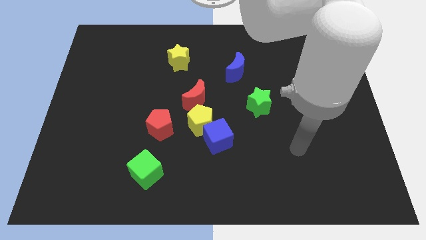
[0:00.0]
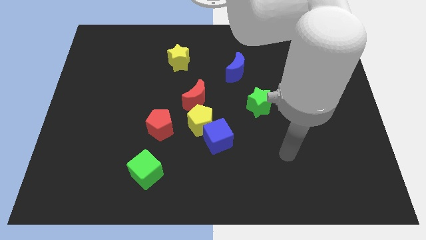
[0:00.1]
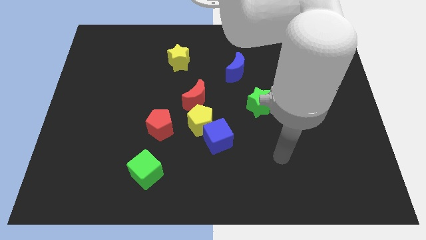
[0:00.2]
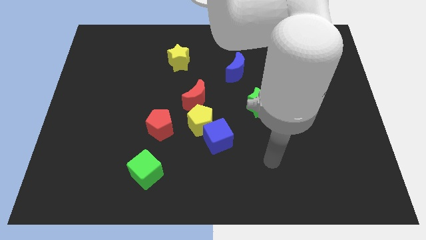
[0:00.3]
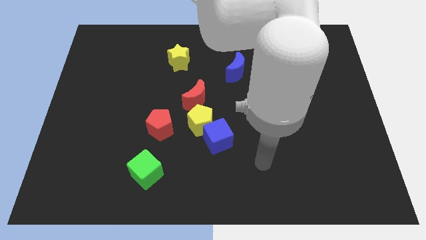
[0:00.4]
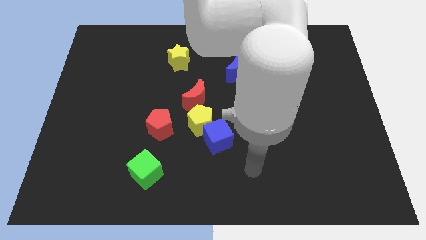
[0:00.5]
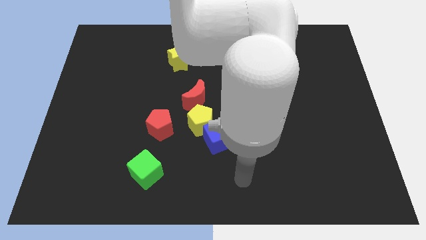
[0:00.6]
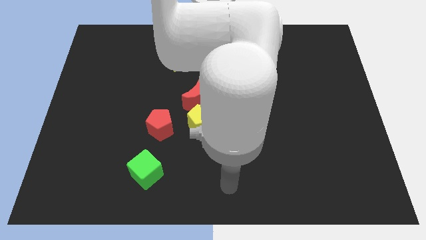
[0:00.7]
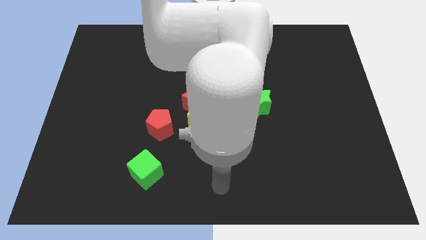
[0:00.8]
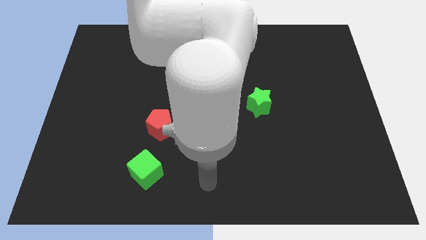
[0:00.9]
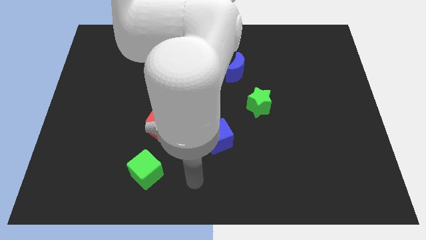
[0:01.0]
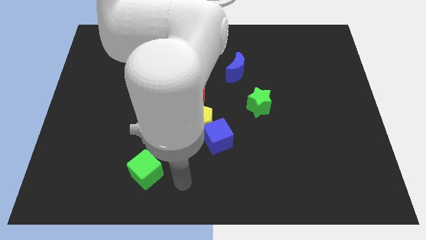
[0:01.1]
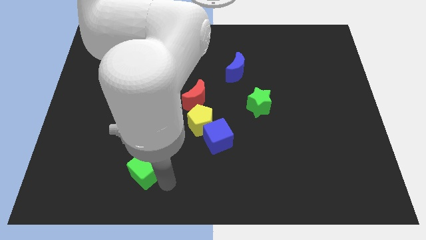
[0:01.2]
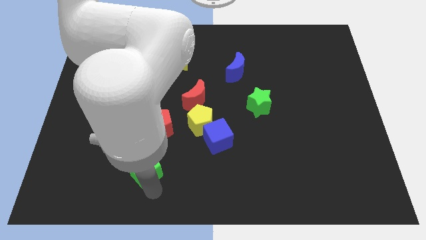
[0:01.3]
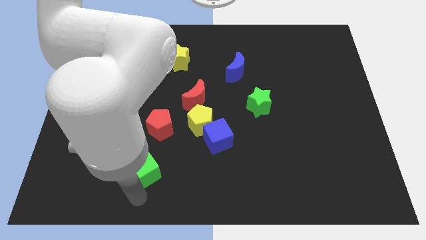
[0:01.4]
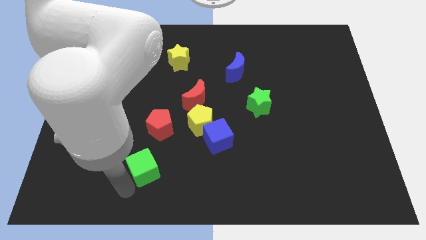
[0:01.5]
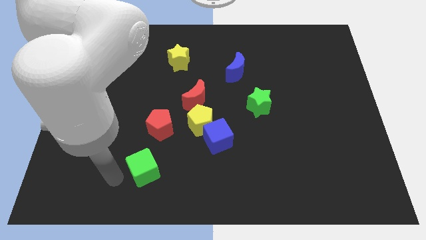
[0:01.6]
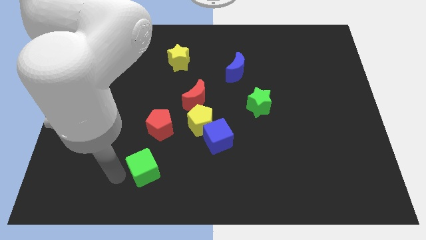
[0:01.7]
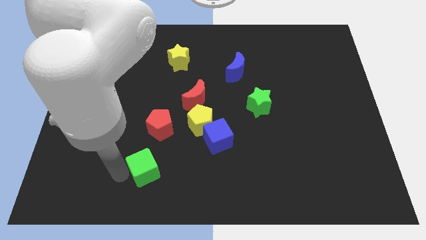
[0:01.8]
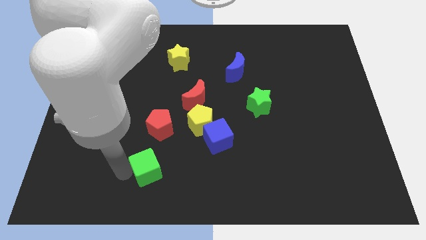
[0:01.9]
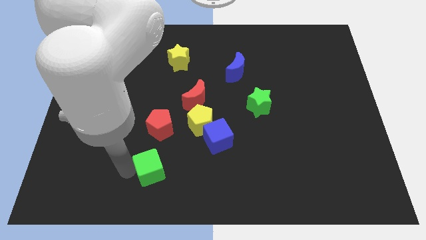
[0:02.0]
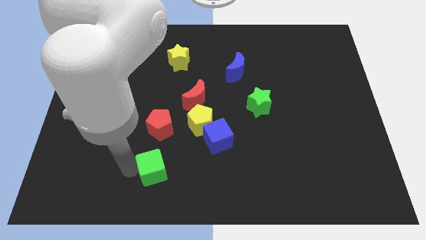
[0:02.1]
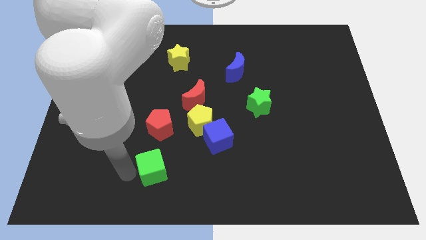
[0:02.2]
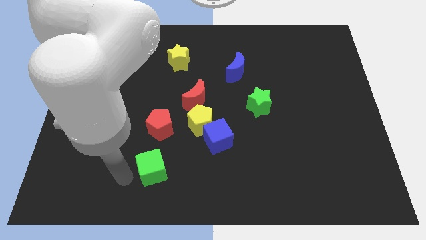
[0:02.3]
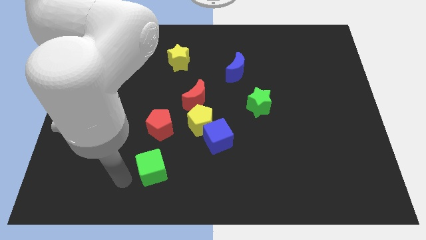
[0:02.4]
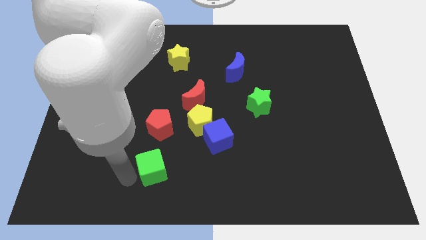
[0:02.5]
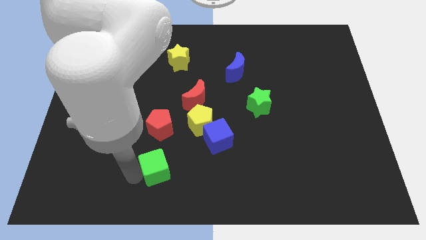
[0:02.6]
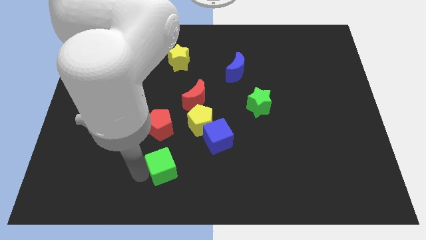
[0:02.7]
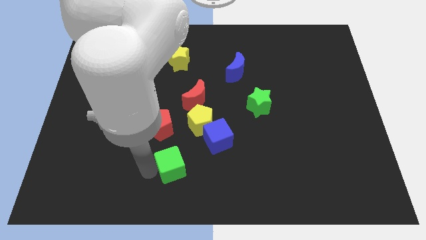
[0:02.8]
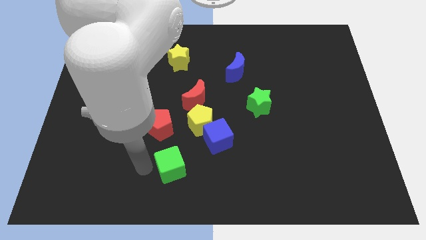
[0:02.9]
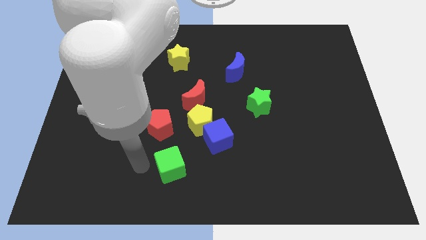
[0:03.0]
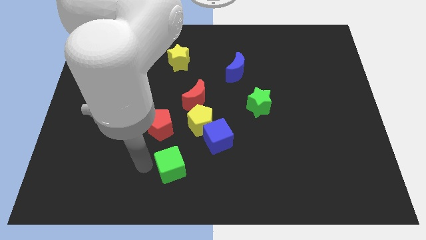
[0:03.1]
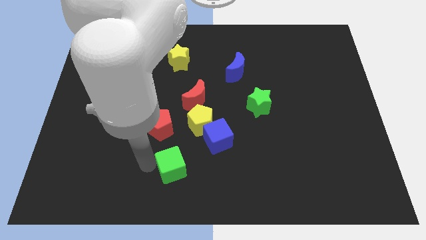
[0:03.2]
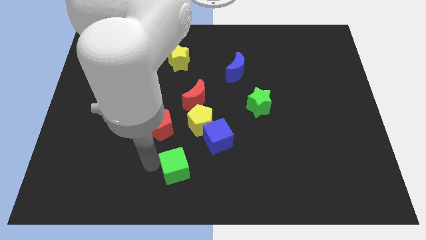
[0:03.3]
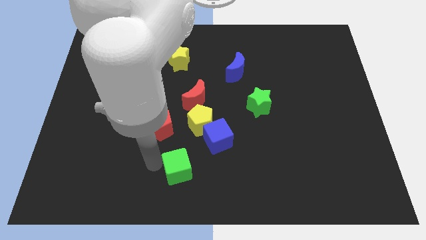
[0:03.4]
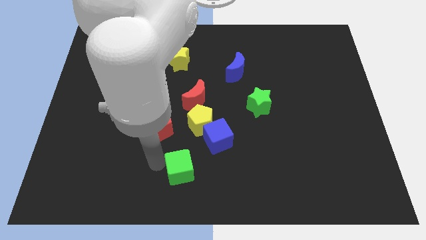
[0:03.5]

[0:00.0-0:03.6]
push the green cube slightly right

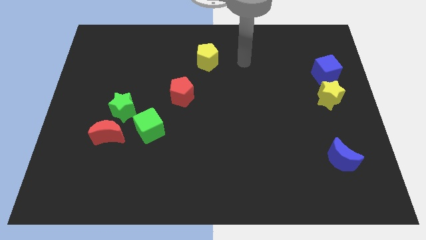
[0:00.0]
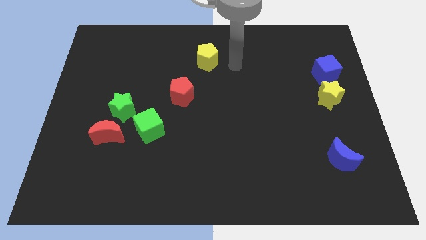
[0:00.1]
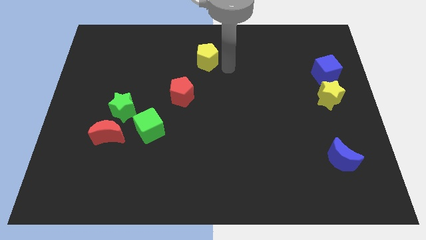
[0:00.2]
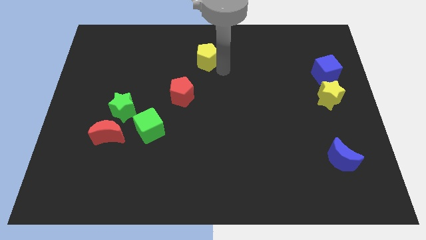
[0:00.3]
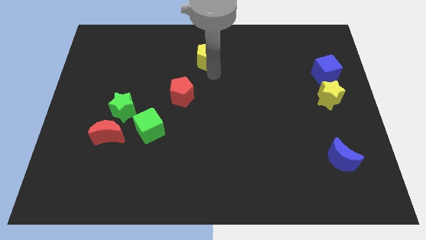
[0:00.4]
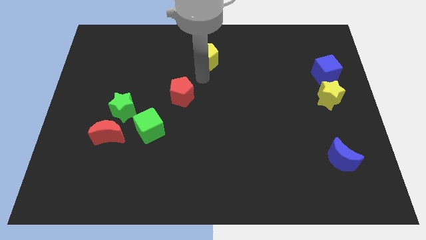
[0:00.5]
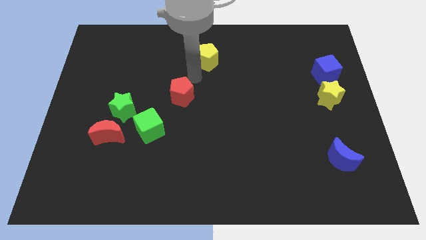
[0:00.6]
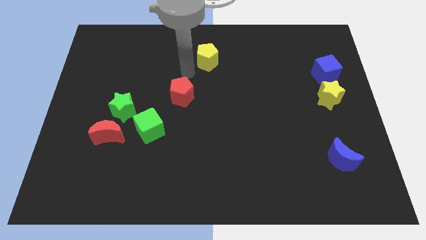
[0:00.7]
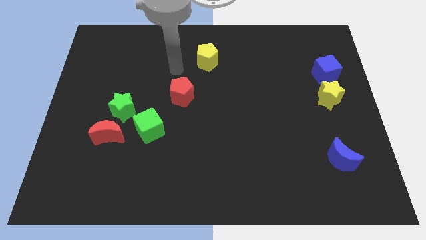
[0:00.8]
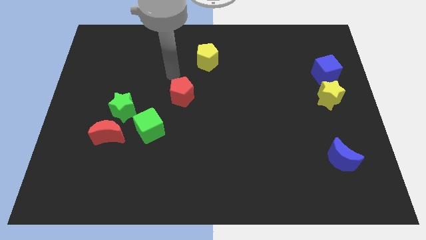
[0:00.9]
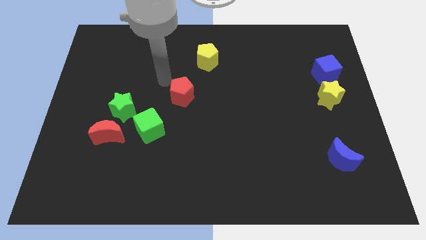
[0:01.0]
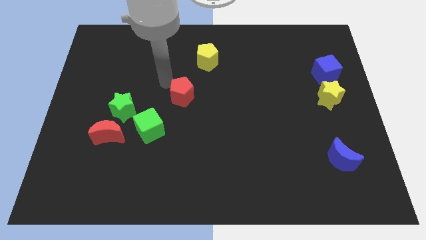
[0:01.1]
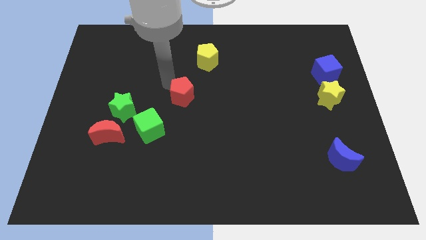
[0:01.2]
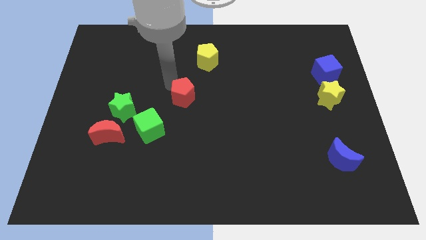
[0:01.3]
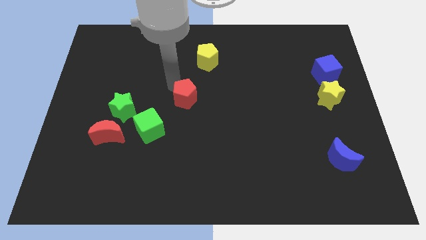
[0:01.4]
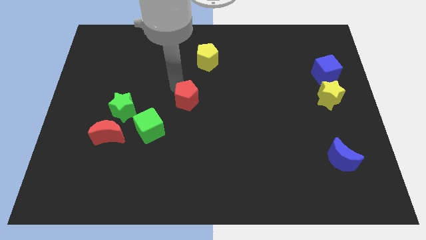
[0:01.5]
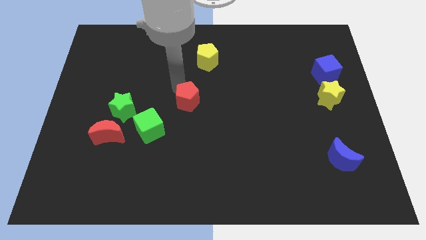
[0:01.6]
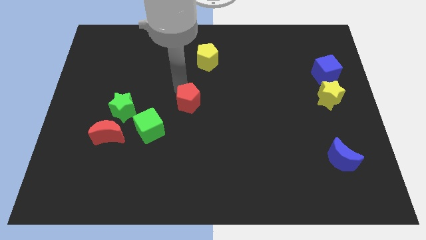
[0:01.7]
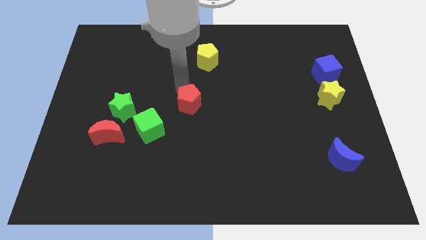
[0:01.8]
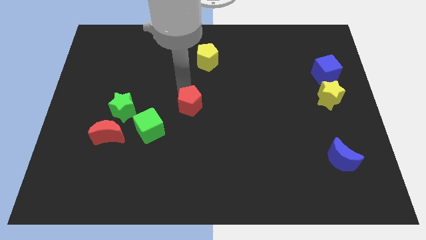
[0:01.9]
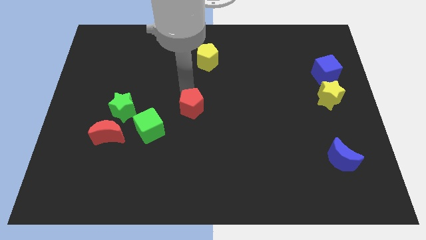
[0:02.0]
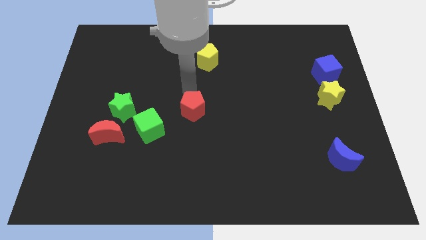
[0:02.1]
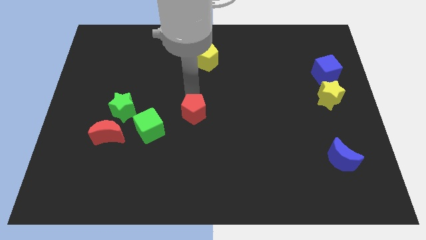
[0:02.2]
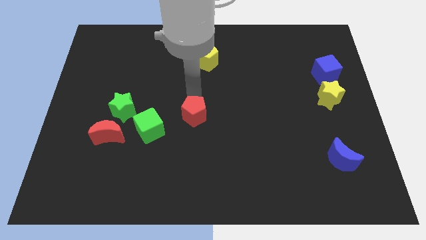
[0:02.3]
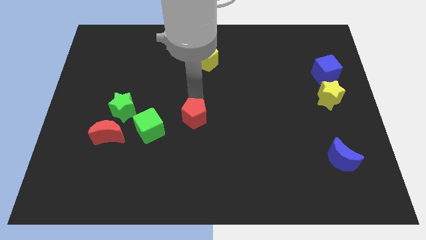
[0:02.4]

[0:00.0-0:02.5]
move the red pentagon a little bit down and to the right

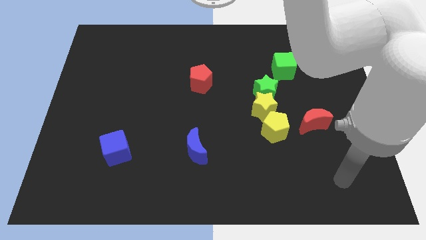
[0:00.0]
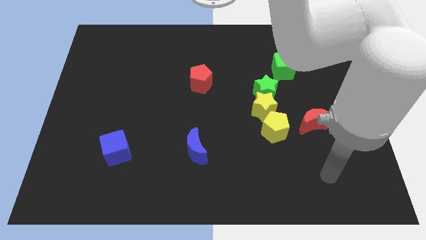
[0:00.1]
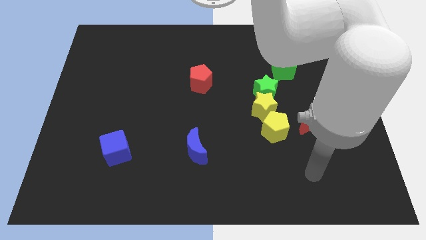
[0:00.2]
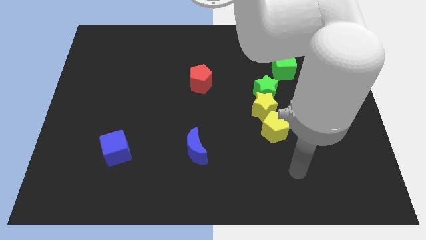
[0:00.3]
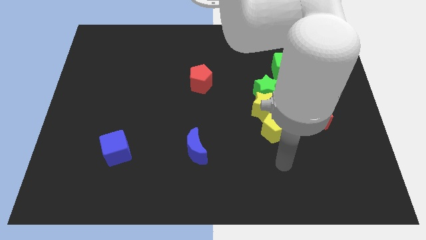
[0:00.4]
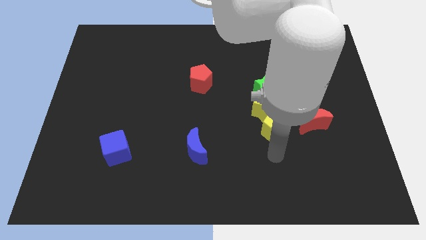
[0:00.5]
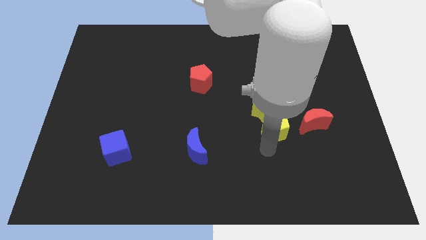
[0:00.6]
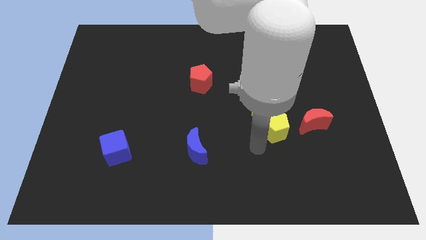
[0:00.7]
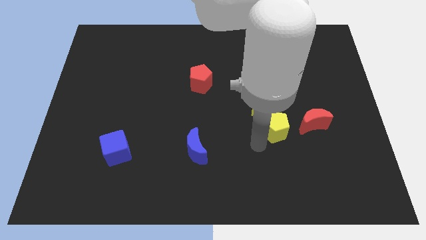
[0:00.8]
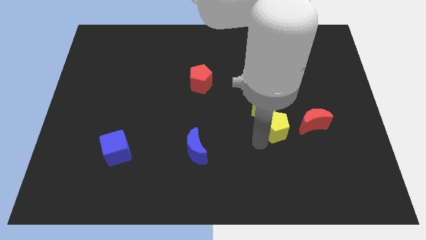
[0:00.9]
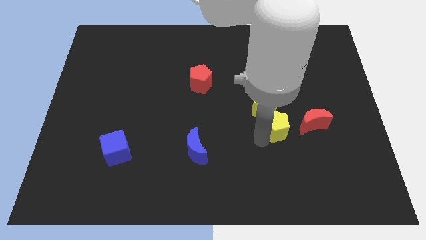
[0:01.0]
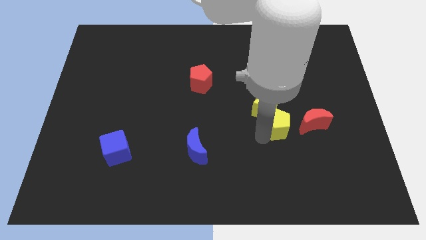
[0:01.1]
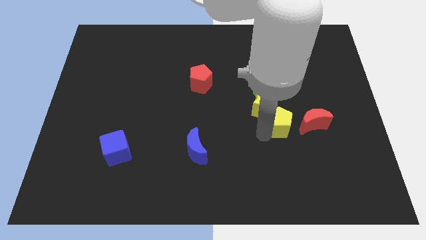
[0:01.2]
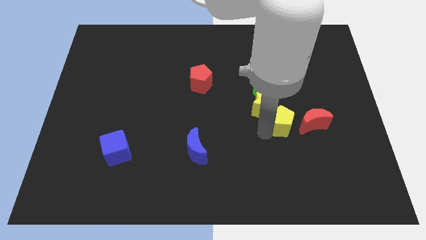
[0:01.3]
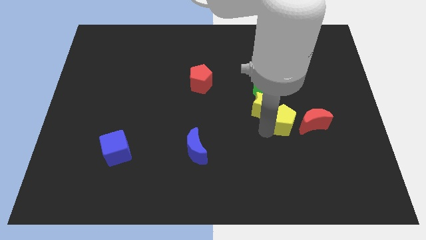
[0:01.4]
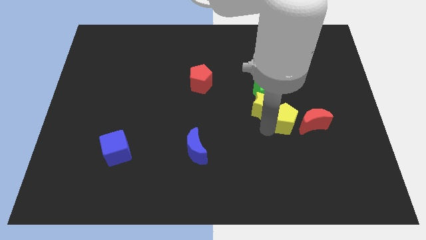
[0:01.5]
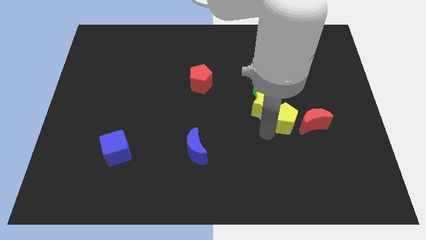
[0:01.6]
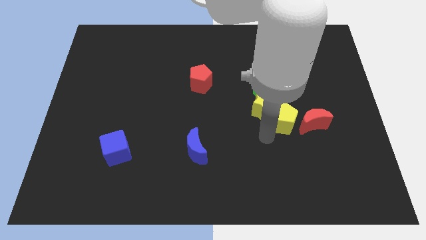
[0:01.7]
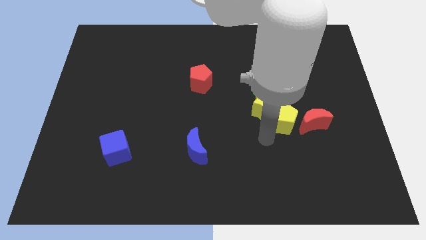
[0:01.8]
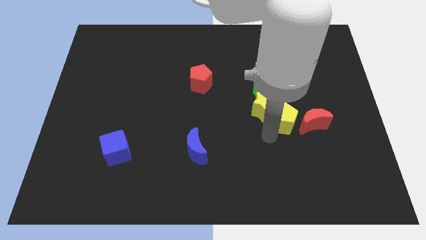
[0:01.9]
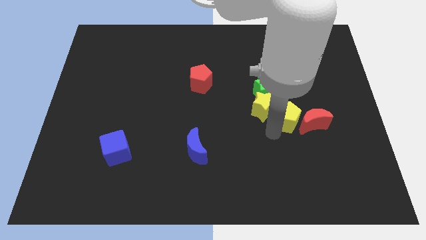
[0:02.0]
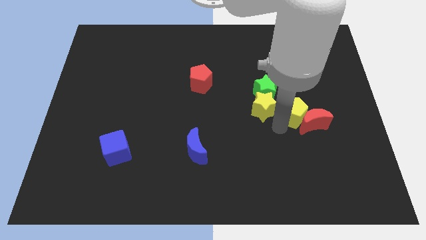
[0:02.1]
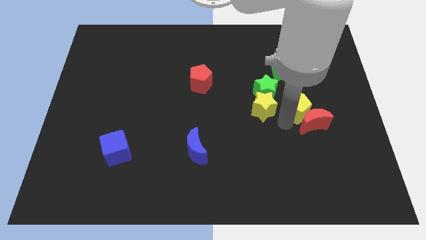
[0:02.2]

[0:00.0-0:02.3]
slightly move the yellow pentagon upwards and right
